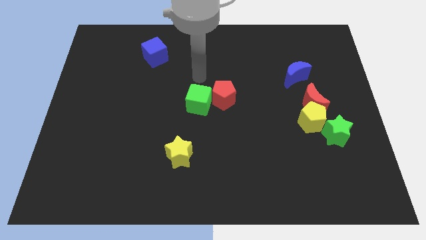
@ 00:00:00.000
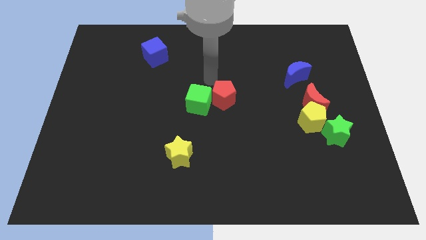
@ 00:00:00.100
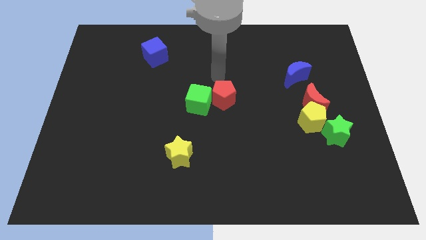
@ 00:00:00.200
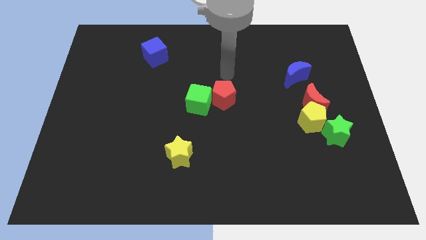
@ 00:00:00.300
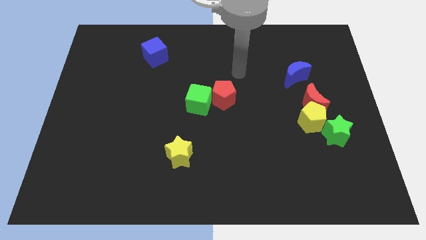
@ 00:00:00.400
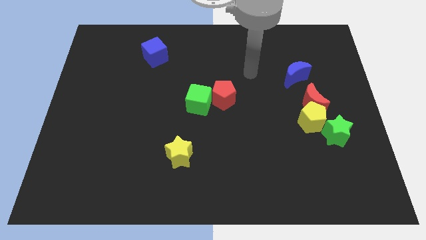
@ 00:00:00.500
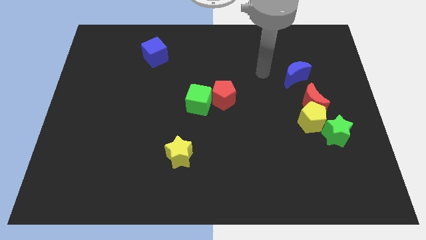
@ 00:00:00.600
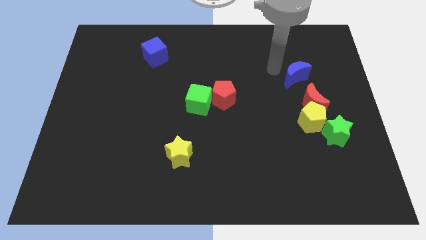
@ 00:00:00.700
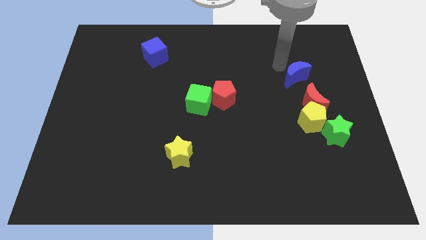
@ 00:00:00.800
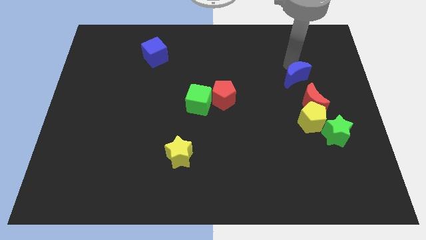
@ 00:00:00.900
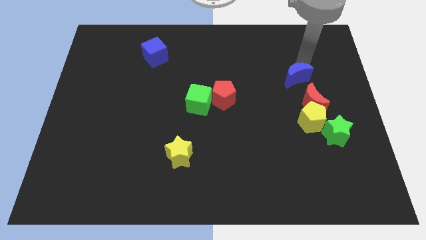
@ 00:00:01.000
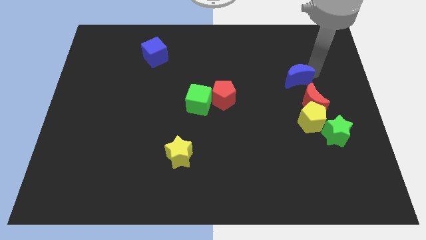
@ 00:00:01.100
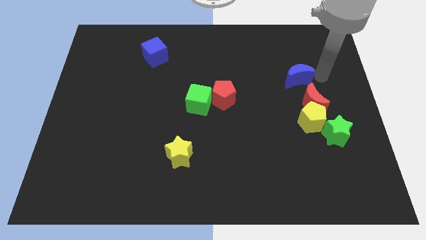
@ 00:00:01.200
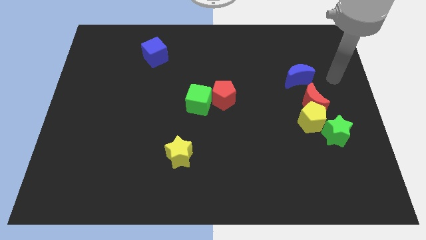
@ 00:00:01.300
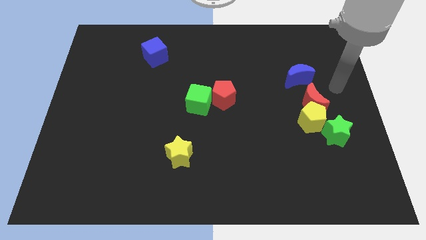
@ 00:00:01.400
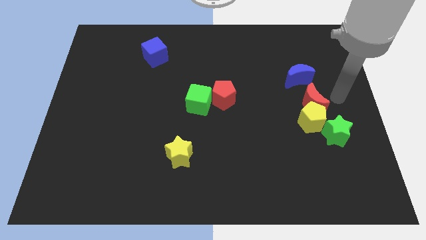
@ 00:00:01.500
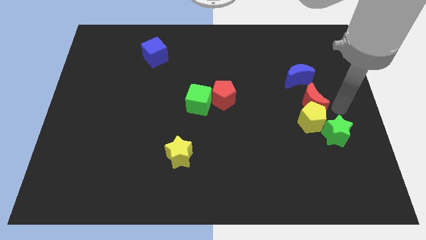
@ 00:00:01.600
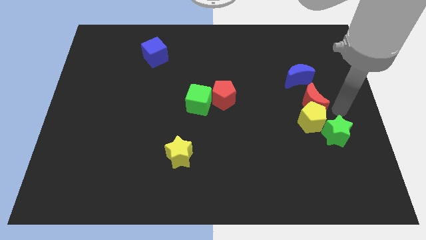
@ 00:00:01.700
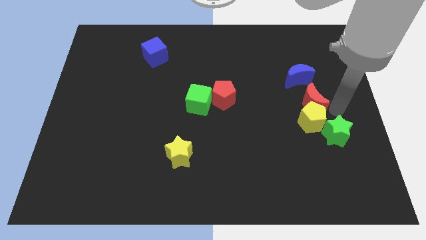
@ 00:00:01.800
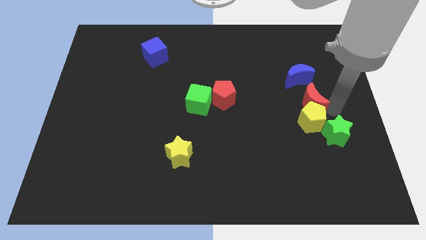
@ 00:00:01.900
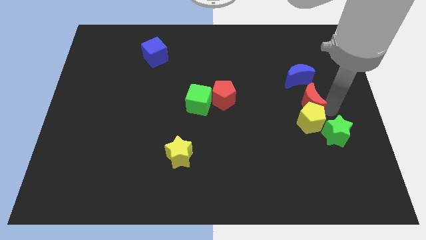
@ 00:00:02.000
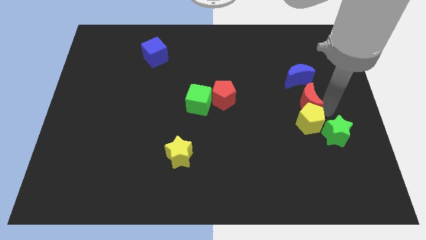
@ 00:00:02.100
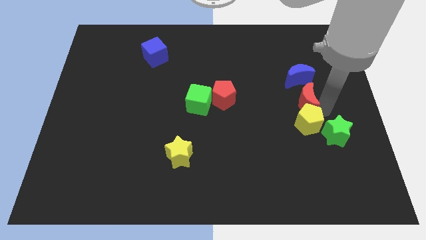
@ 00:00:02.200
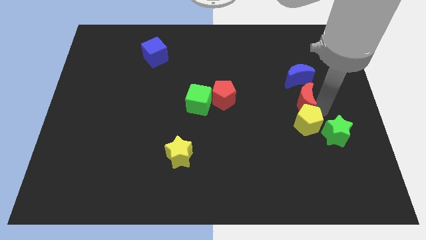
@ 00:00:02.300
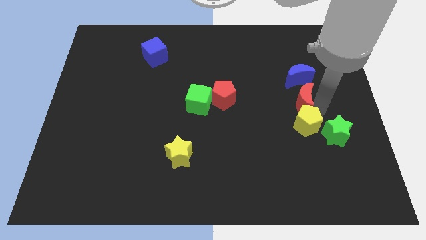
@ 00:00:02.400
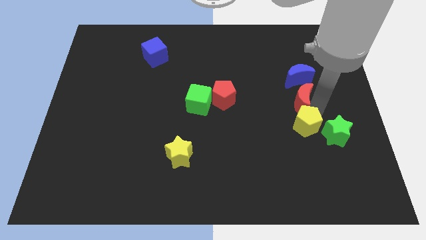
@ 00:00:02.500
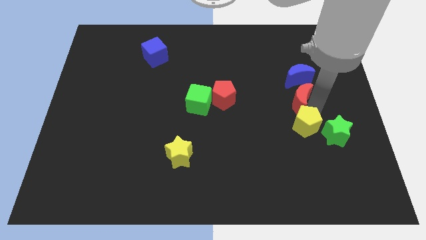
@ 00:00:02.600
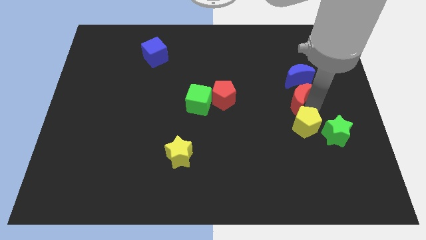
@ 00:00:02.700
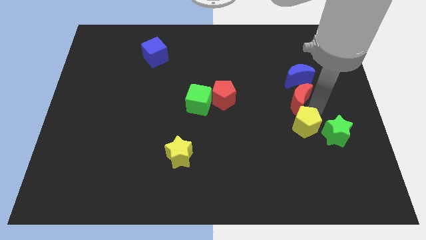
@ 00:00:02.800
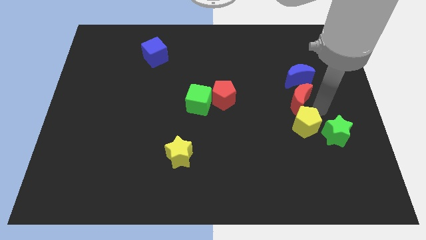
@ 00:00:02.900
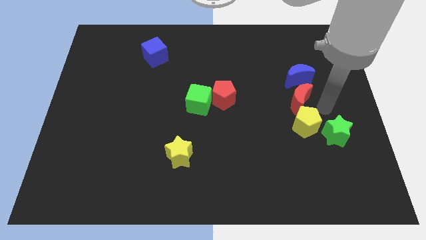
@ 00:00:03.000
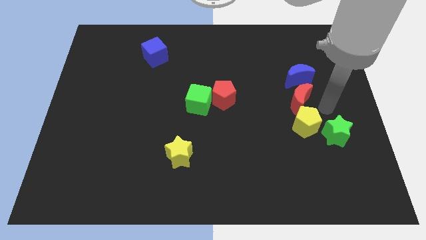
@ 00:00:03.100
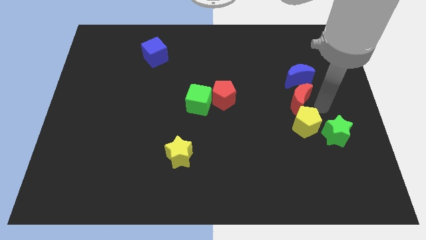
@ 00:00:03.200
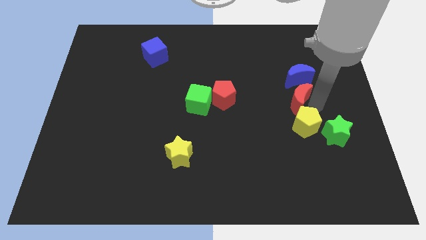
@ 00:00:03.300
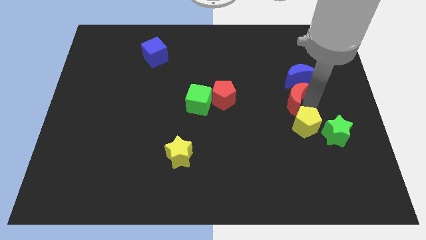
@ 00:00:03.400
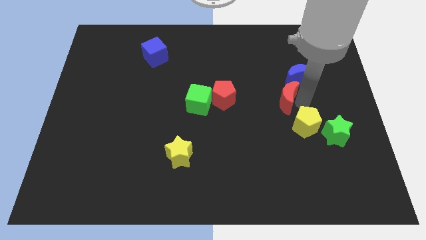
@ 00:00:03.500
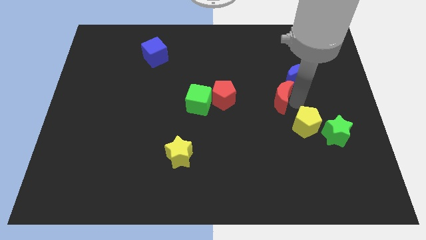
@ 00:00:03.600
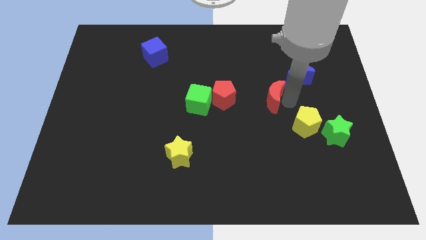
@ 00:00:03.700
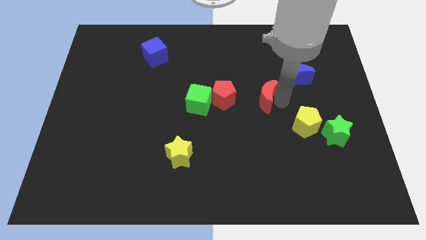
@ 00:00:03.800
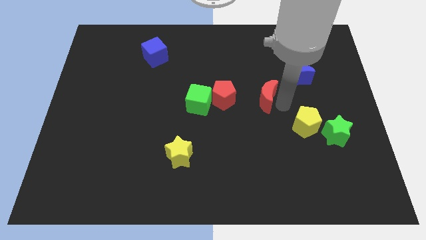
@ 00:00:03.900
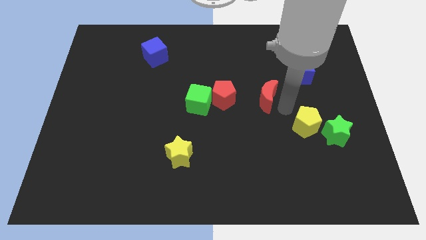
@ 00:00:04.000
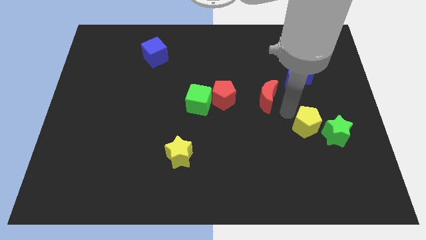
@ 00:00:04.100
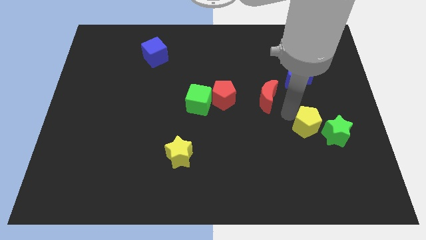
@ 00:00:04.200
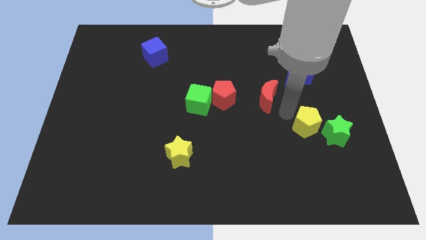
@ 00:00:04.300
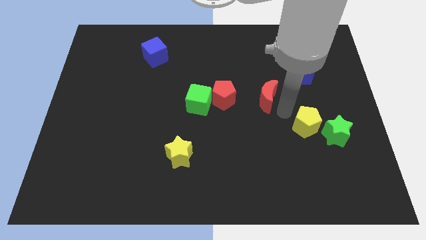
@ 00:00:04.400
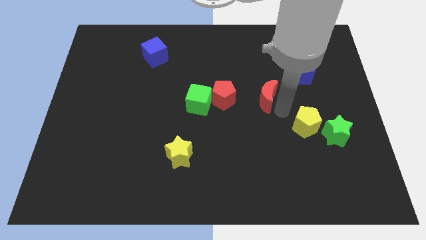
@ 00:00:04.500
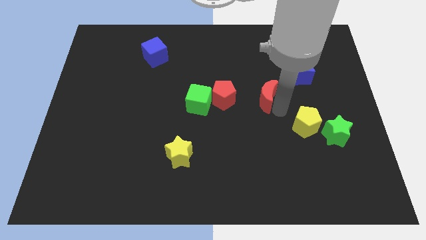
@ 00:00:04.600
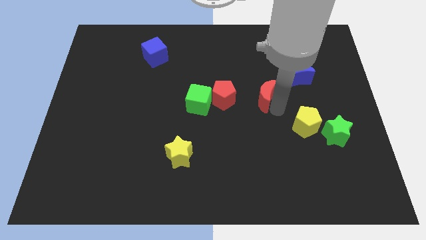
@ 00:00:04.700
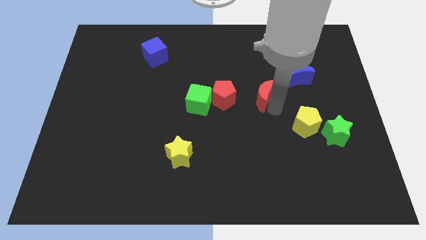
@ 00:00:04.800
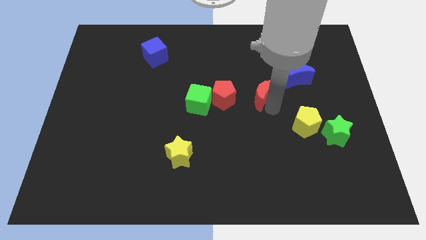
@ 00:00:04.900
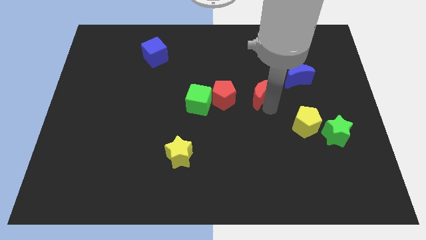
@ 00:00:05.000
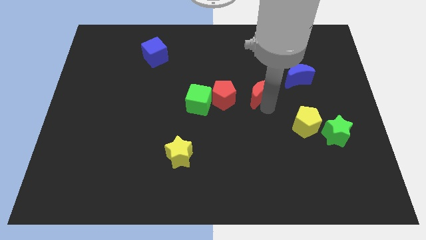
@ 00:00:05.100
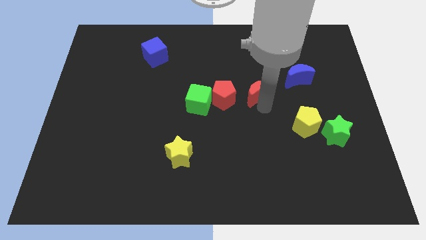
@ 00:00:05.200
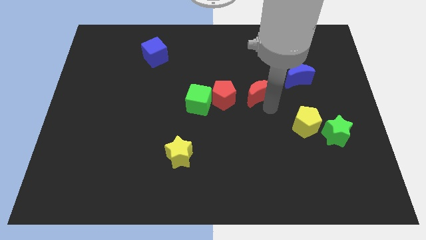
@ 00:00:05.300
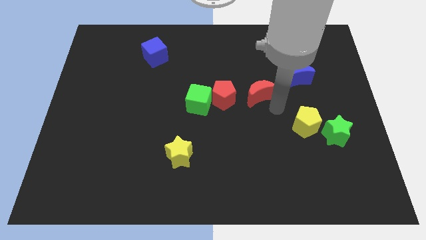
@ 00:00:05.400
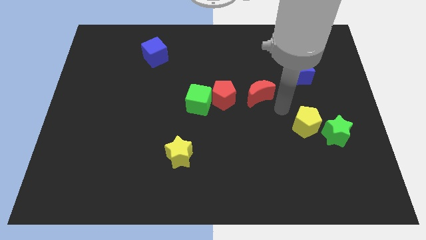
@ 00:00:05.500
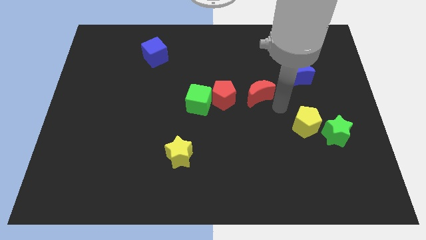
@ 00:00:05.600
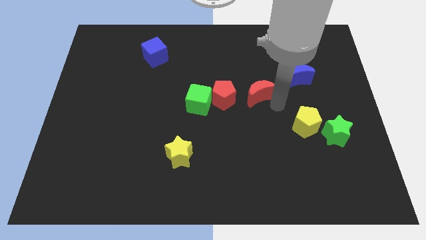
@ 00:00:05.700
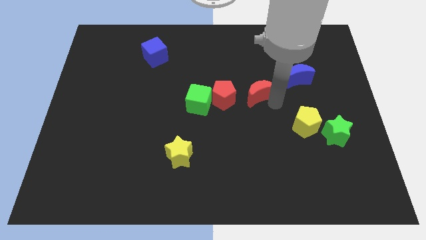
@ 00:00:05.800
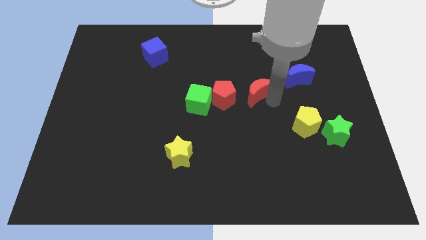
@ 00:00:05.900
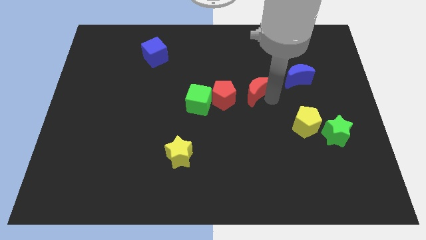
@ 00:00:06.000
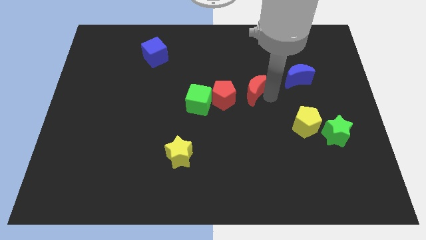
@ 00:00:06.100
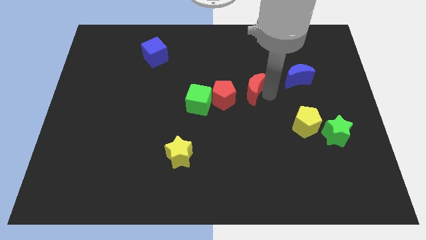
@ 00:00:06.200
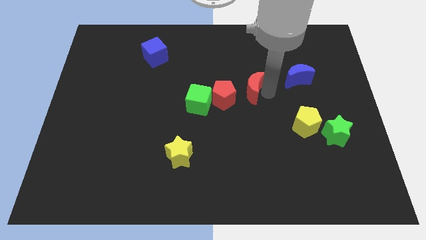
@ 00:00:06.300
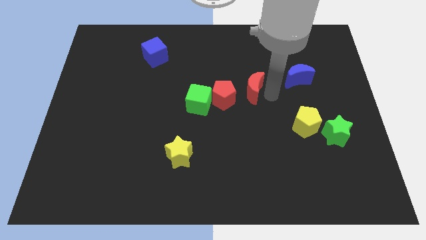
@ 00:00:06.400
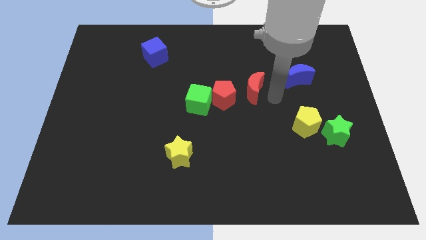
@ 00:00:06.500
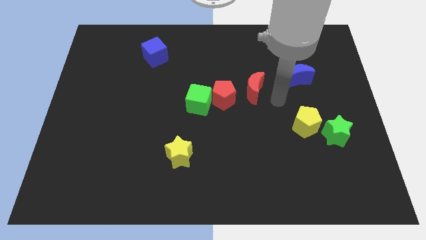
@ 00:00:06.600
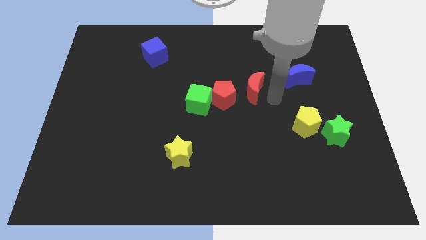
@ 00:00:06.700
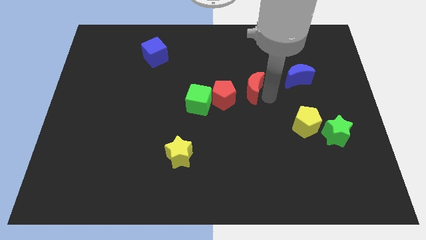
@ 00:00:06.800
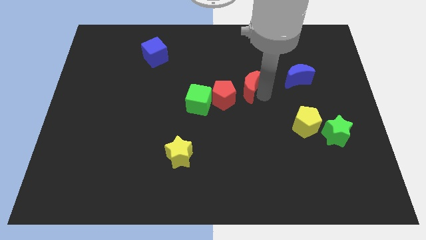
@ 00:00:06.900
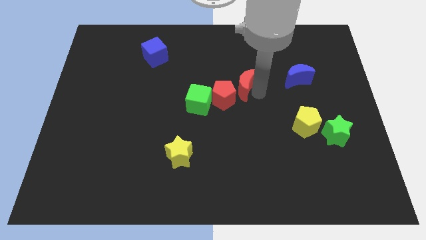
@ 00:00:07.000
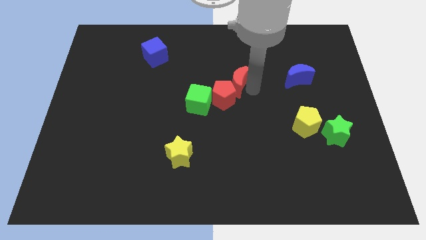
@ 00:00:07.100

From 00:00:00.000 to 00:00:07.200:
move the red moon diagonally up and to the right of the green cube
